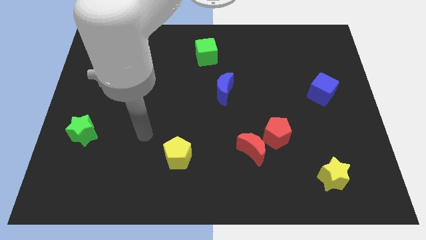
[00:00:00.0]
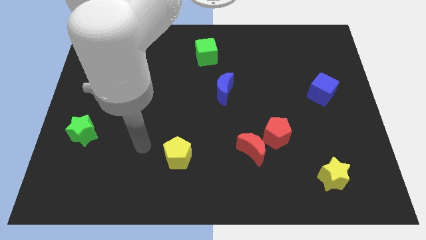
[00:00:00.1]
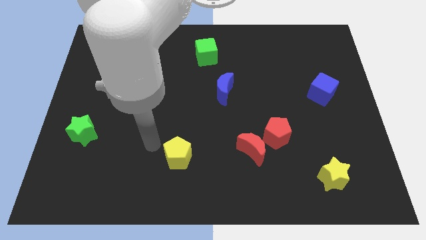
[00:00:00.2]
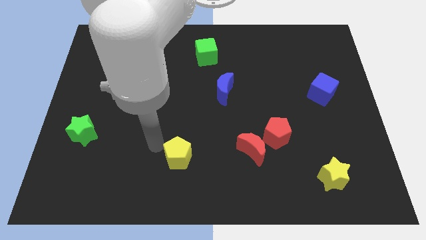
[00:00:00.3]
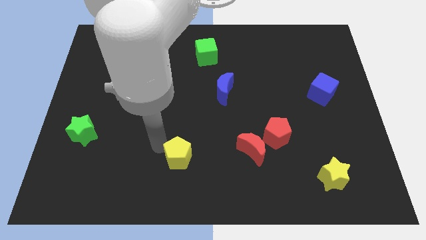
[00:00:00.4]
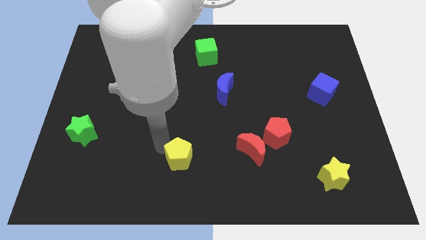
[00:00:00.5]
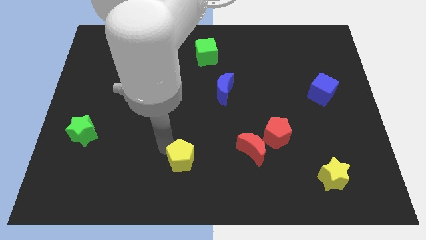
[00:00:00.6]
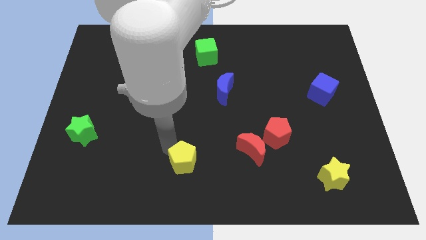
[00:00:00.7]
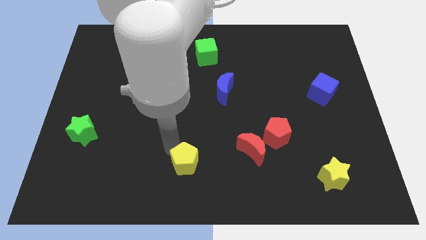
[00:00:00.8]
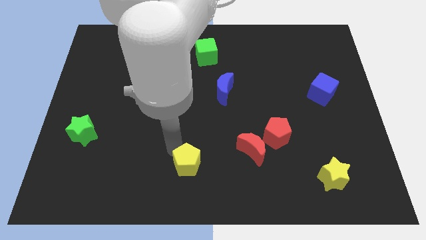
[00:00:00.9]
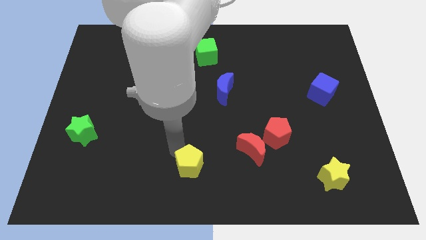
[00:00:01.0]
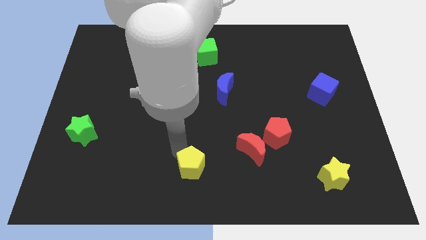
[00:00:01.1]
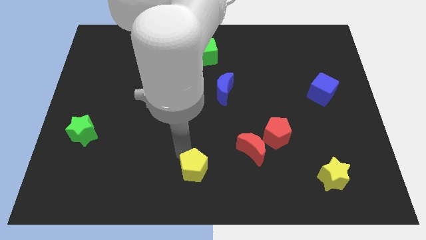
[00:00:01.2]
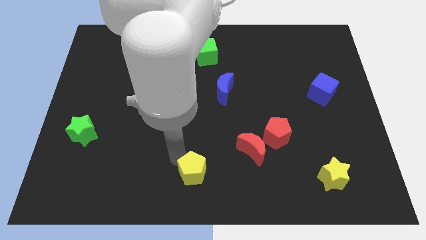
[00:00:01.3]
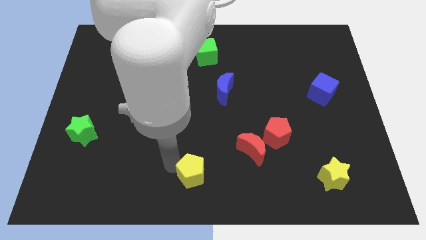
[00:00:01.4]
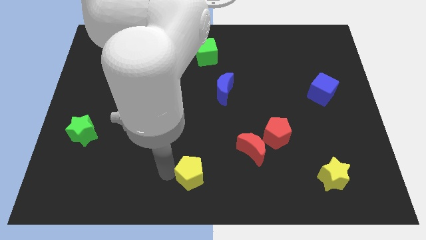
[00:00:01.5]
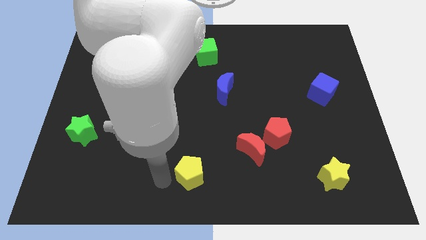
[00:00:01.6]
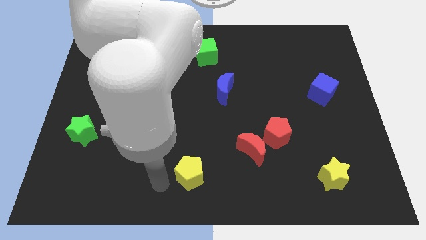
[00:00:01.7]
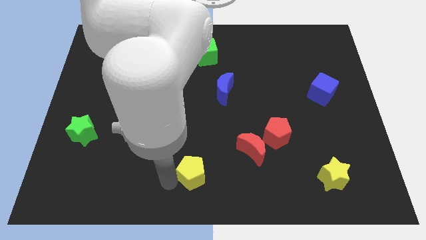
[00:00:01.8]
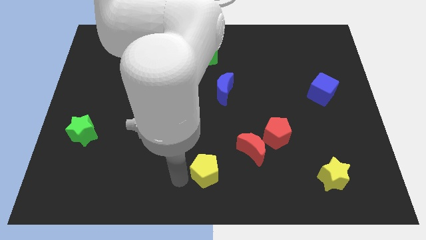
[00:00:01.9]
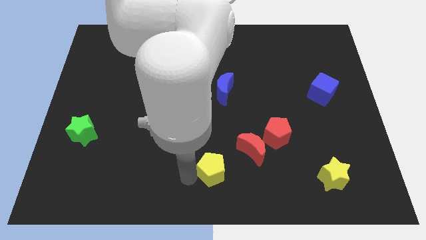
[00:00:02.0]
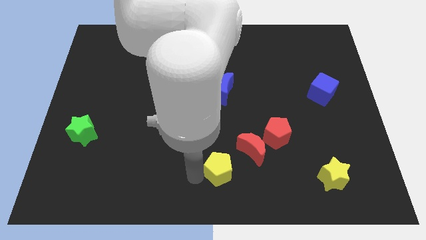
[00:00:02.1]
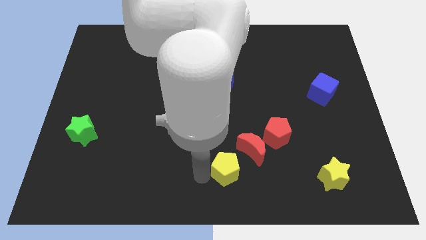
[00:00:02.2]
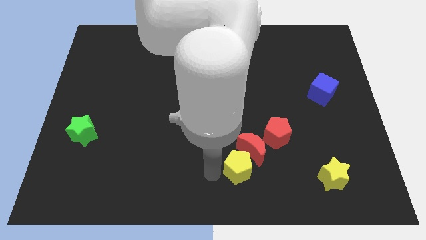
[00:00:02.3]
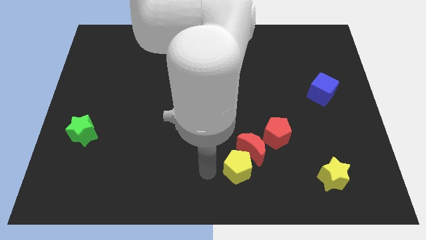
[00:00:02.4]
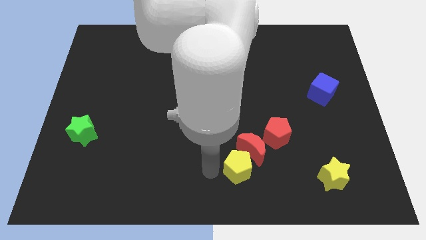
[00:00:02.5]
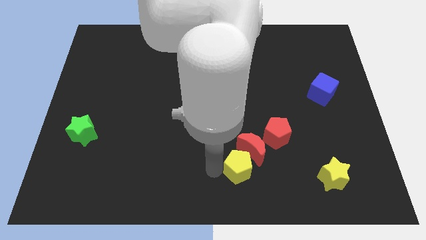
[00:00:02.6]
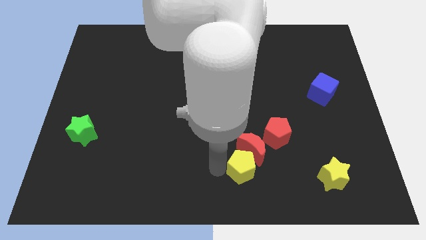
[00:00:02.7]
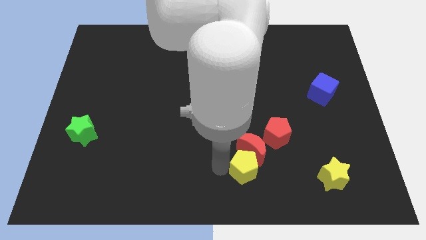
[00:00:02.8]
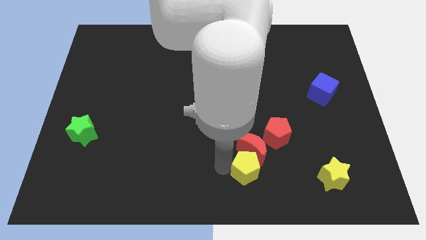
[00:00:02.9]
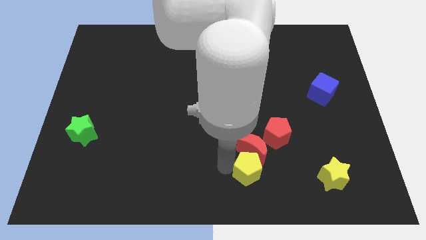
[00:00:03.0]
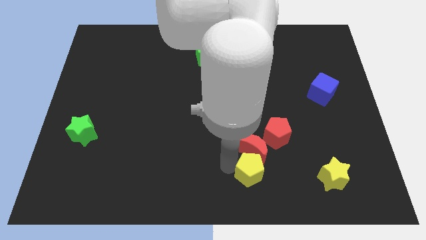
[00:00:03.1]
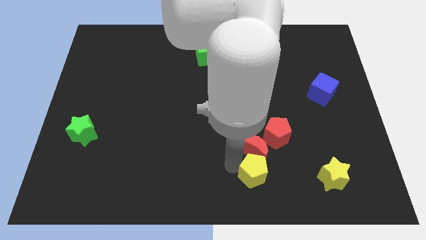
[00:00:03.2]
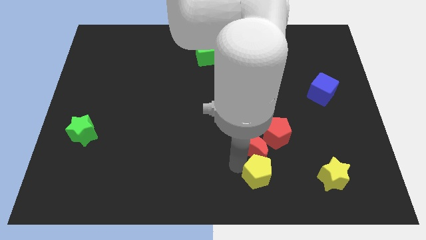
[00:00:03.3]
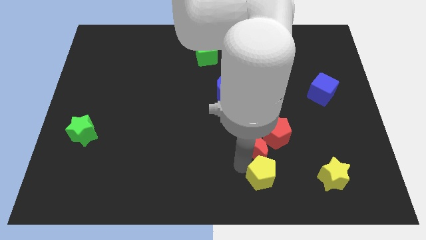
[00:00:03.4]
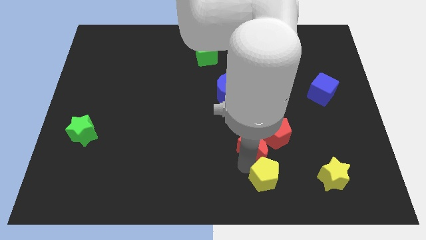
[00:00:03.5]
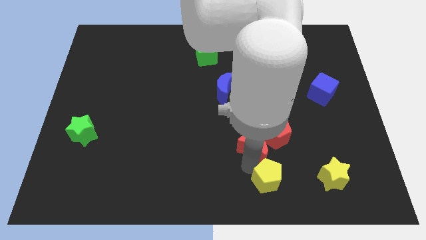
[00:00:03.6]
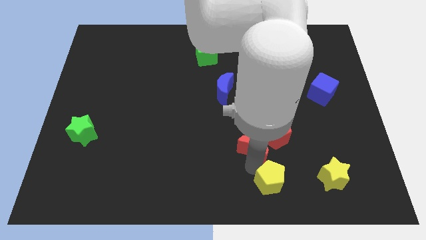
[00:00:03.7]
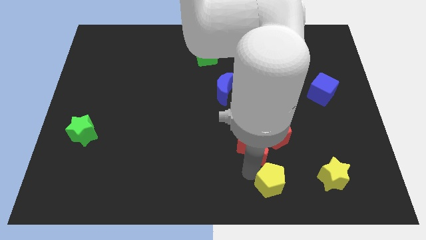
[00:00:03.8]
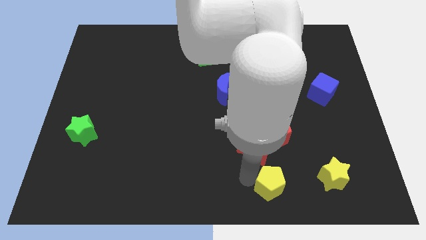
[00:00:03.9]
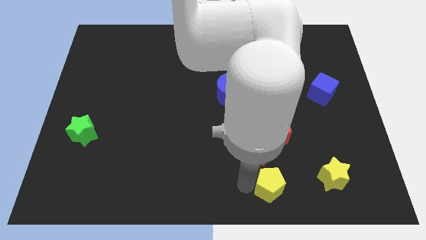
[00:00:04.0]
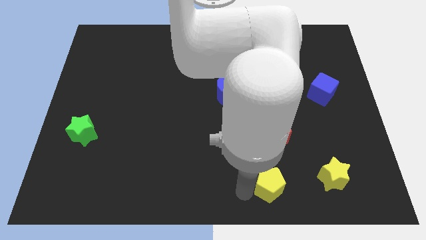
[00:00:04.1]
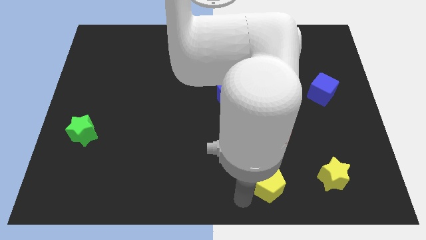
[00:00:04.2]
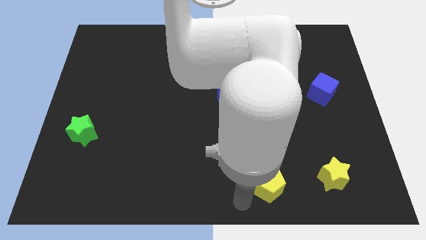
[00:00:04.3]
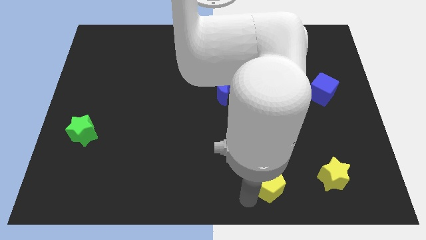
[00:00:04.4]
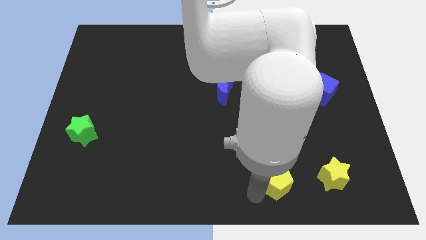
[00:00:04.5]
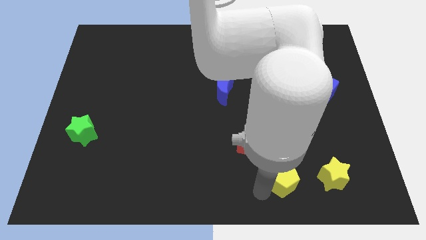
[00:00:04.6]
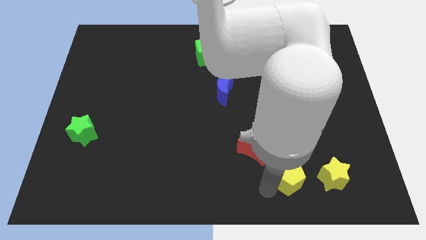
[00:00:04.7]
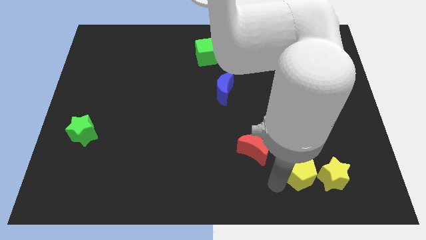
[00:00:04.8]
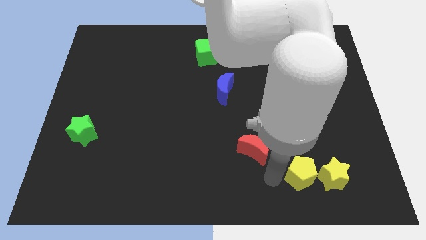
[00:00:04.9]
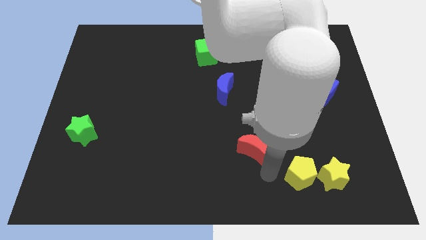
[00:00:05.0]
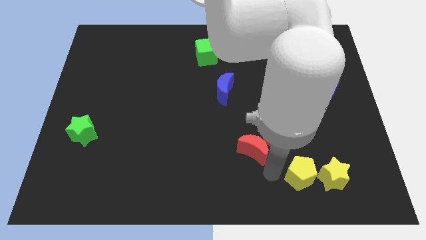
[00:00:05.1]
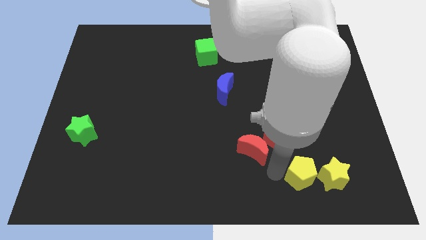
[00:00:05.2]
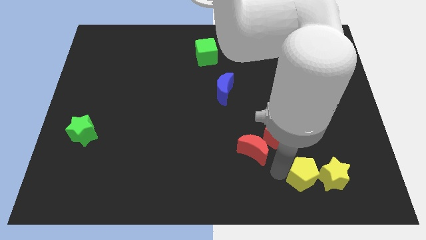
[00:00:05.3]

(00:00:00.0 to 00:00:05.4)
push the yellow pentagon towards the yellow star

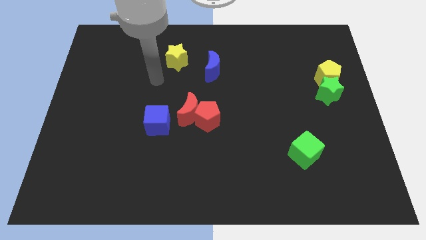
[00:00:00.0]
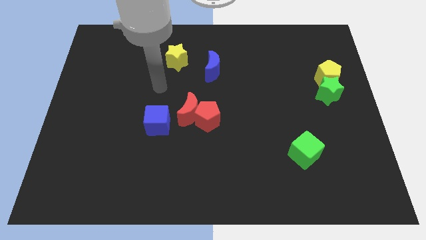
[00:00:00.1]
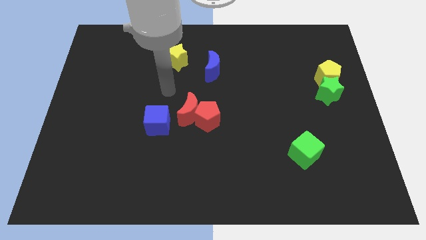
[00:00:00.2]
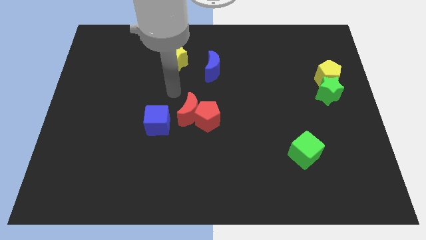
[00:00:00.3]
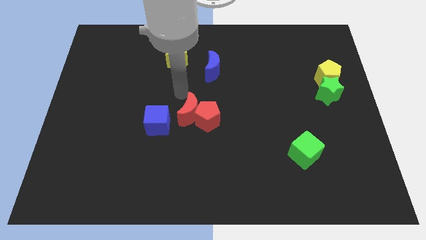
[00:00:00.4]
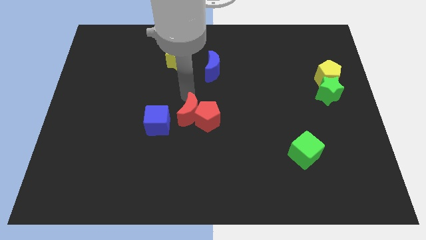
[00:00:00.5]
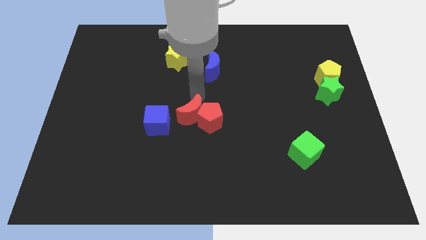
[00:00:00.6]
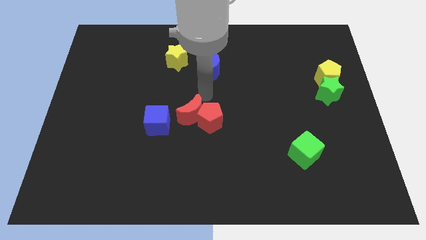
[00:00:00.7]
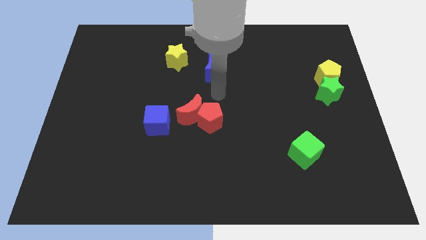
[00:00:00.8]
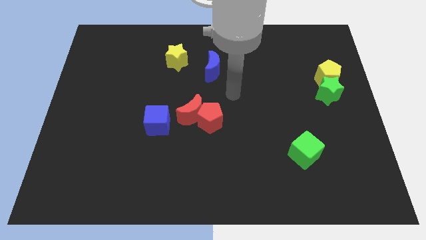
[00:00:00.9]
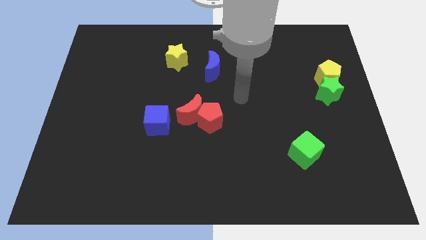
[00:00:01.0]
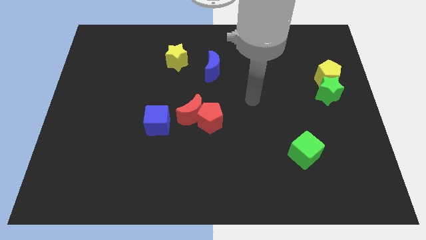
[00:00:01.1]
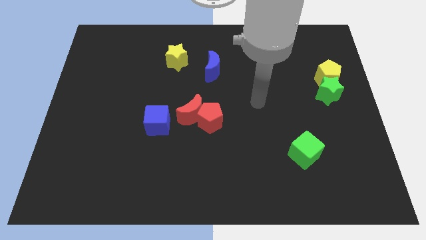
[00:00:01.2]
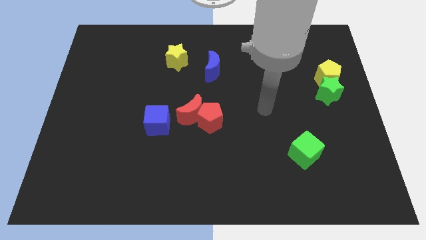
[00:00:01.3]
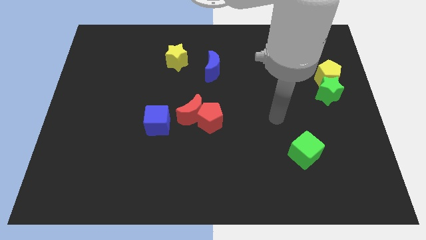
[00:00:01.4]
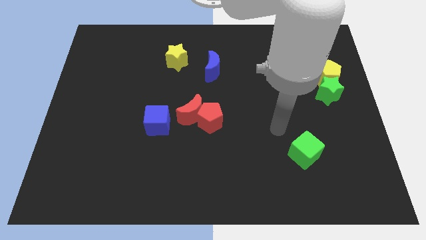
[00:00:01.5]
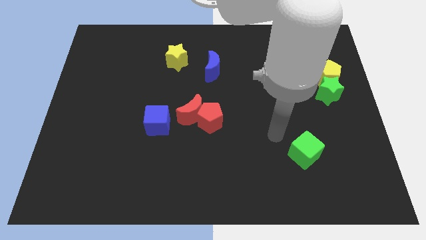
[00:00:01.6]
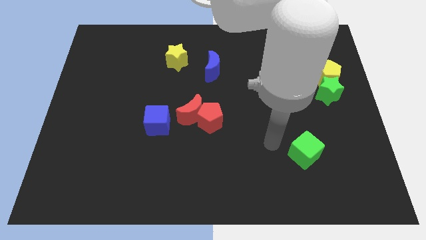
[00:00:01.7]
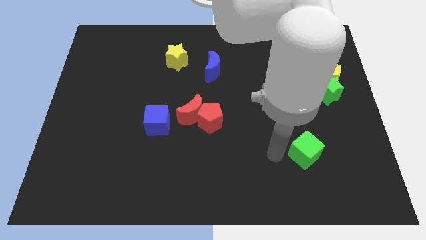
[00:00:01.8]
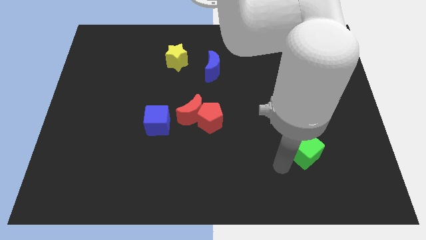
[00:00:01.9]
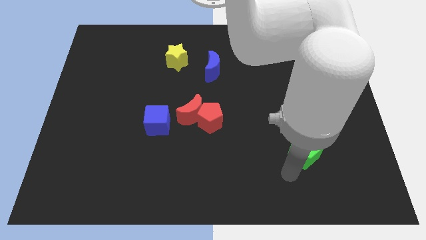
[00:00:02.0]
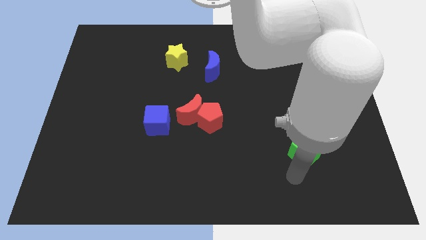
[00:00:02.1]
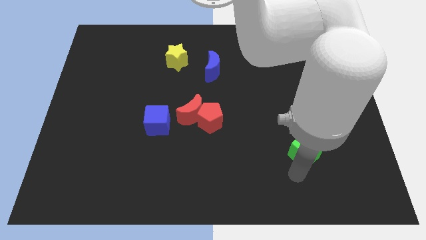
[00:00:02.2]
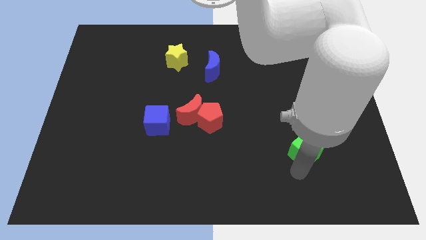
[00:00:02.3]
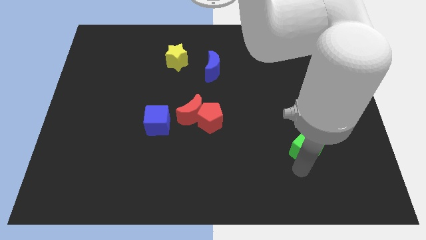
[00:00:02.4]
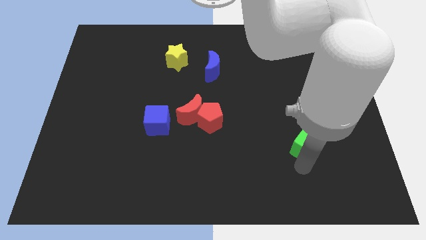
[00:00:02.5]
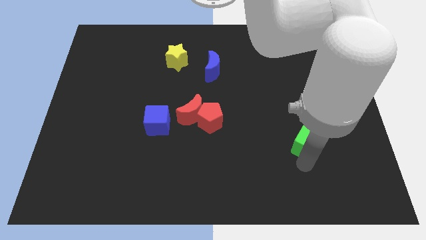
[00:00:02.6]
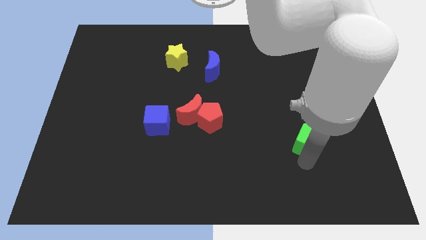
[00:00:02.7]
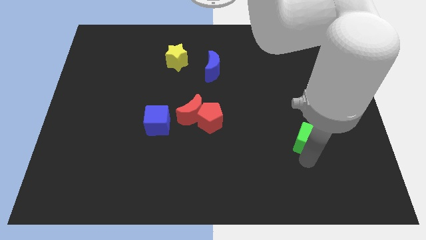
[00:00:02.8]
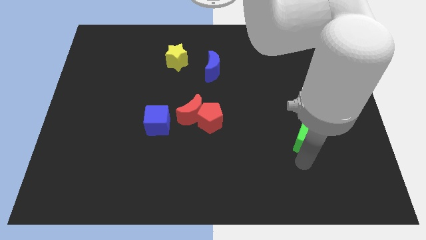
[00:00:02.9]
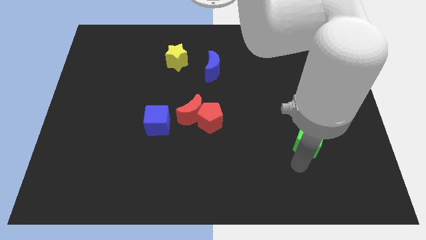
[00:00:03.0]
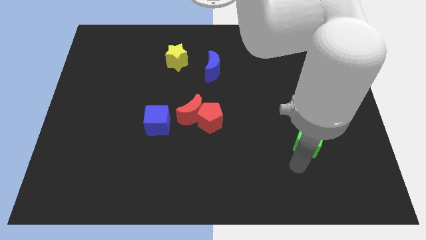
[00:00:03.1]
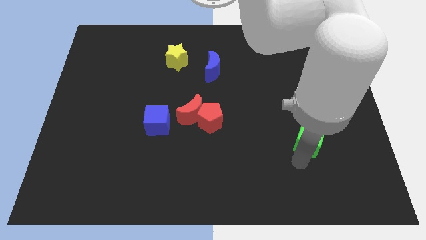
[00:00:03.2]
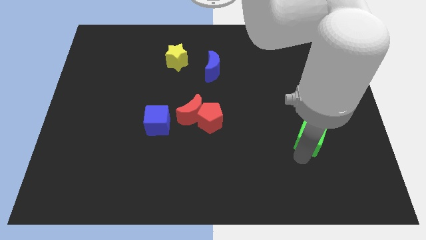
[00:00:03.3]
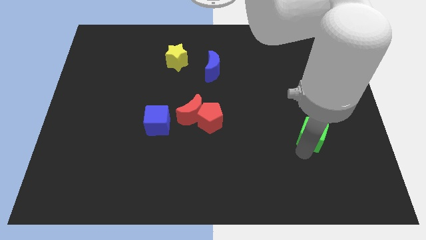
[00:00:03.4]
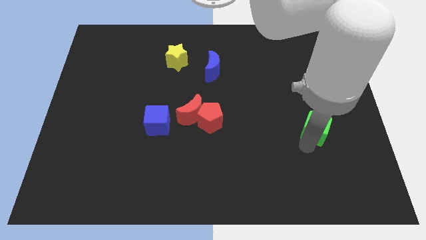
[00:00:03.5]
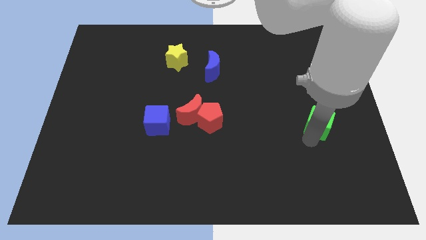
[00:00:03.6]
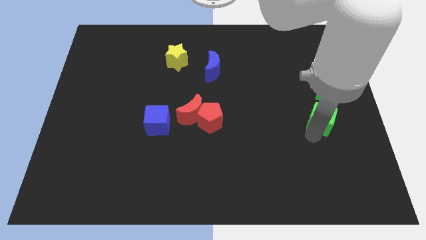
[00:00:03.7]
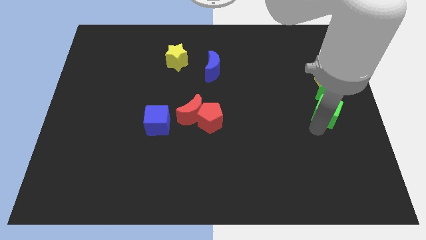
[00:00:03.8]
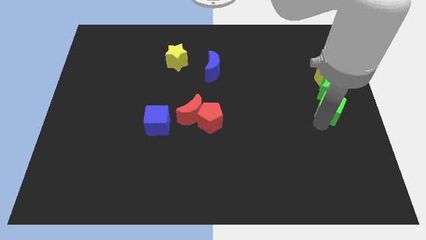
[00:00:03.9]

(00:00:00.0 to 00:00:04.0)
push the green cube next to the green star
